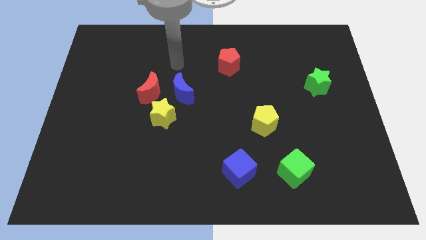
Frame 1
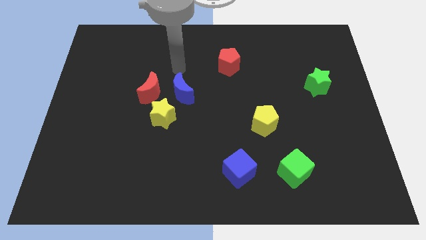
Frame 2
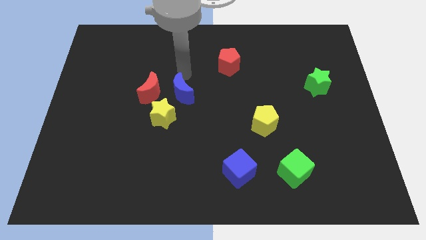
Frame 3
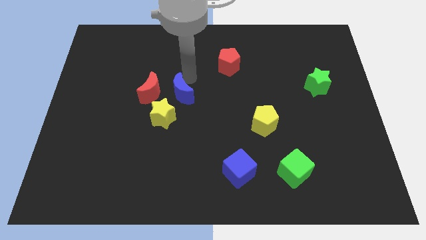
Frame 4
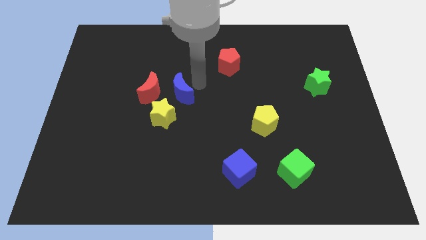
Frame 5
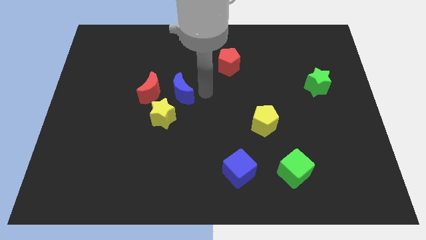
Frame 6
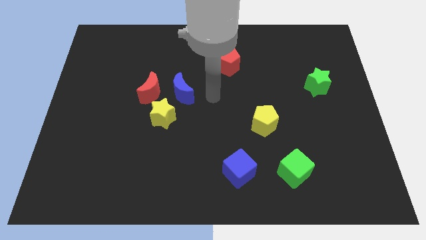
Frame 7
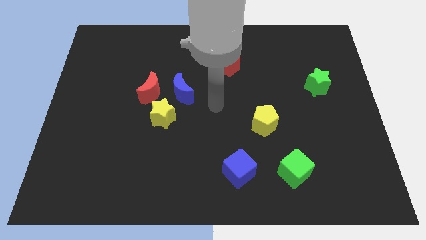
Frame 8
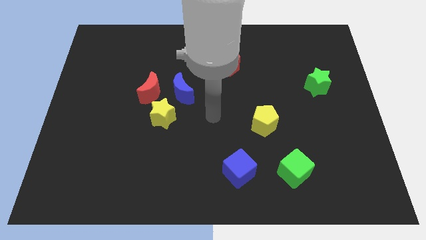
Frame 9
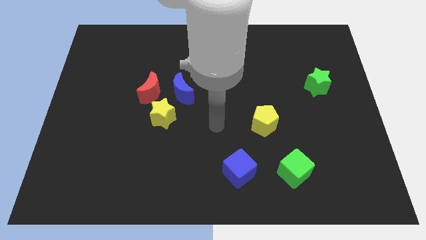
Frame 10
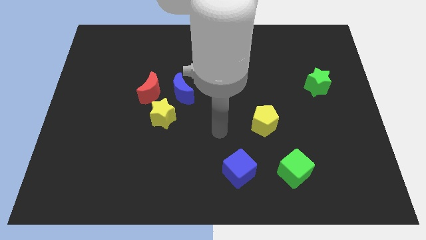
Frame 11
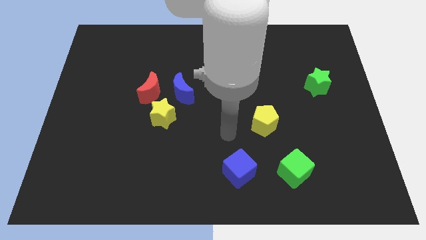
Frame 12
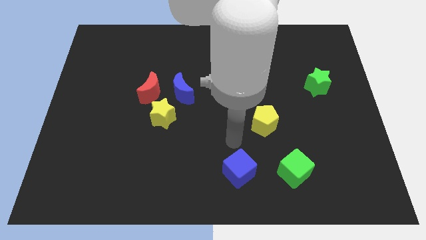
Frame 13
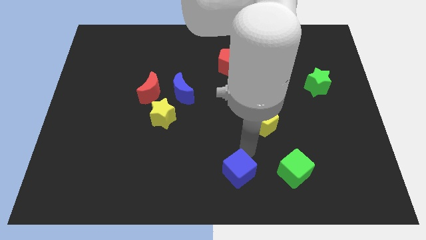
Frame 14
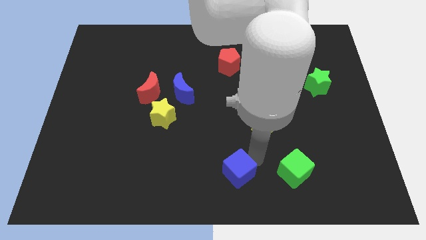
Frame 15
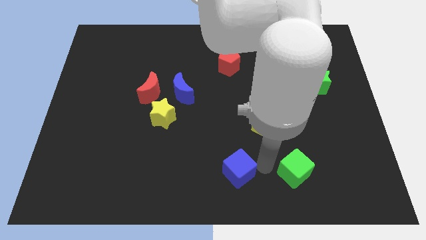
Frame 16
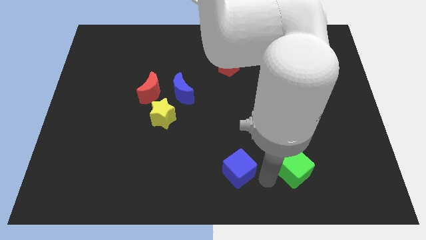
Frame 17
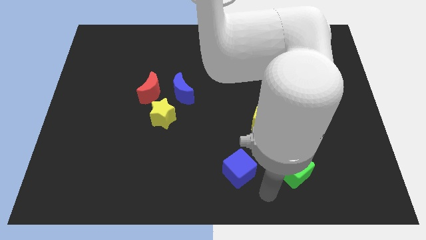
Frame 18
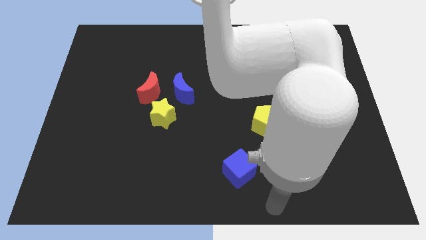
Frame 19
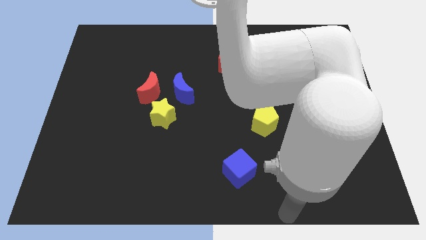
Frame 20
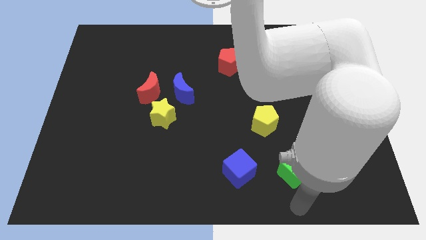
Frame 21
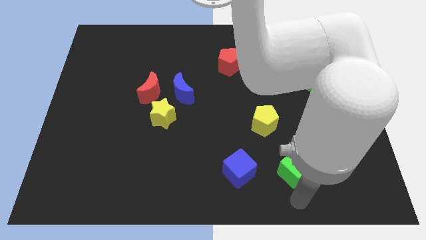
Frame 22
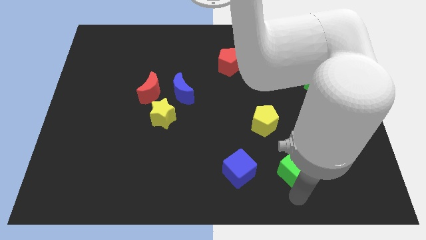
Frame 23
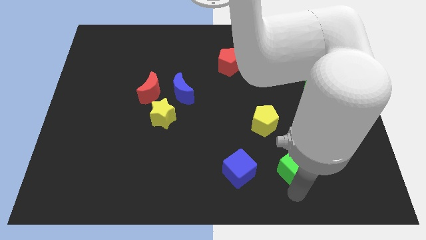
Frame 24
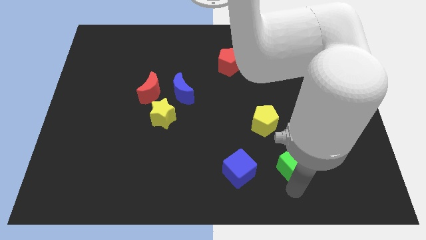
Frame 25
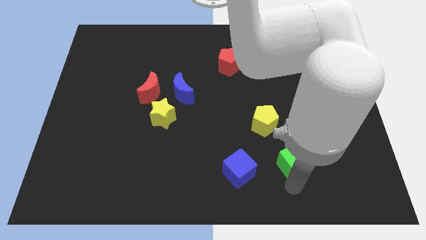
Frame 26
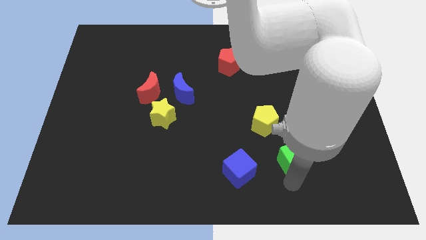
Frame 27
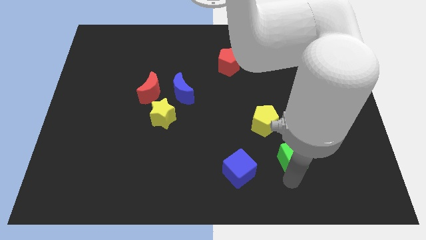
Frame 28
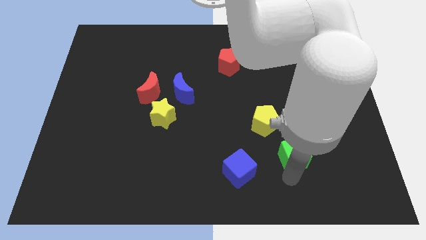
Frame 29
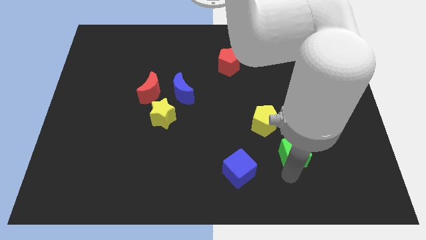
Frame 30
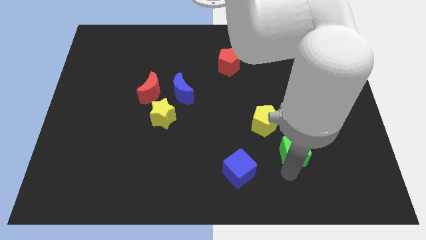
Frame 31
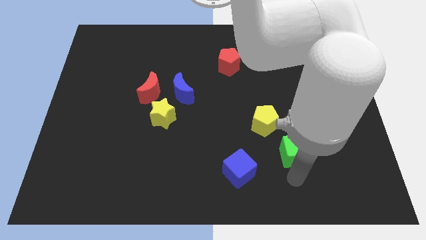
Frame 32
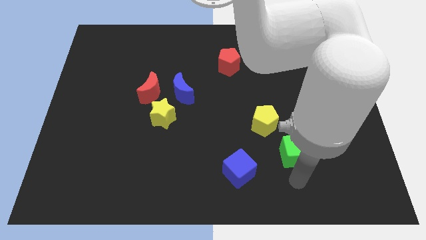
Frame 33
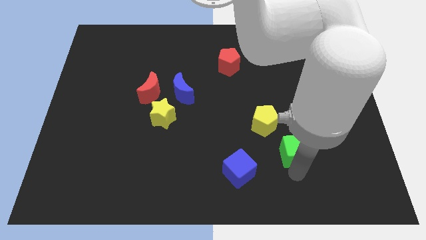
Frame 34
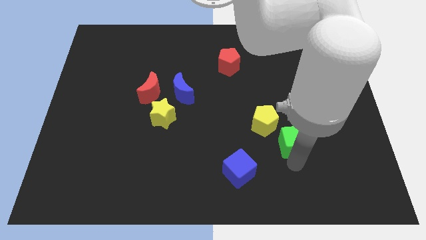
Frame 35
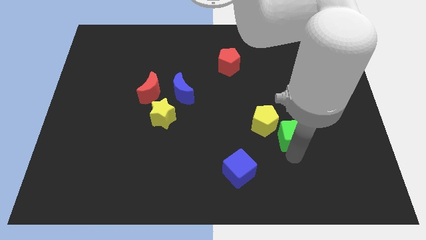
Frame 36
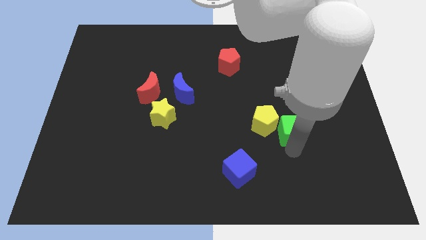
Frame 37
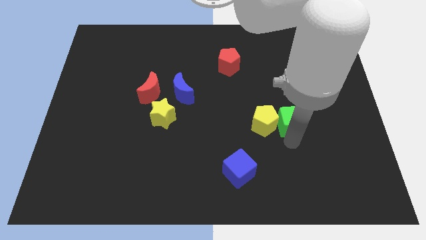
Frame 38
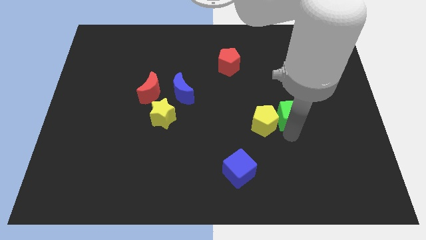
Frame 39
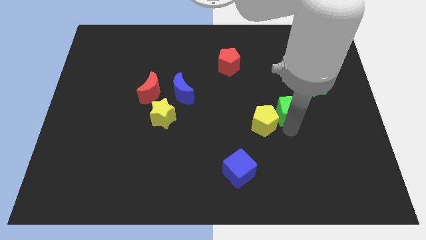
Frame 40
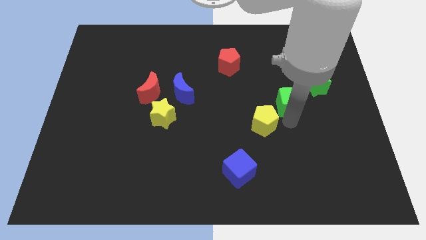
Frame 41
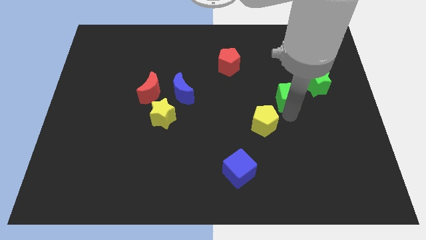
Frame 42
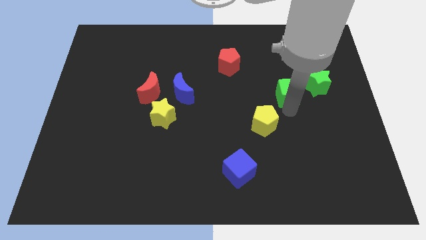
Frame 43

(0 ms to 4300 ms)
move the green cube upwards

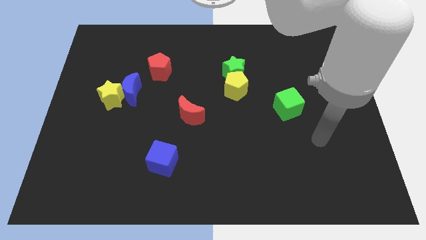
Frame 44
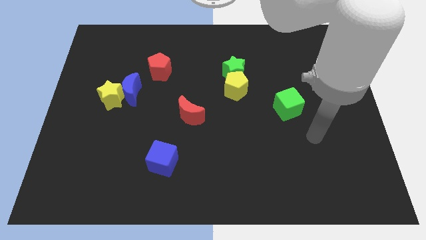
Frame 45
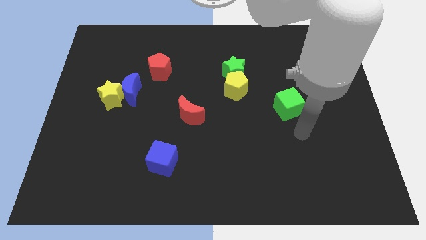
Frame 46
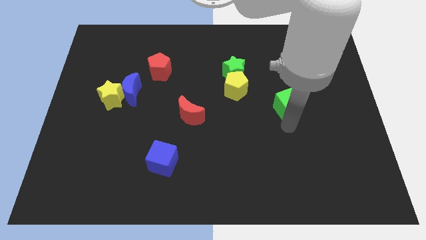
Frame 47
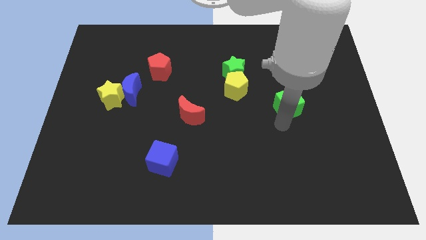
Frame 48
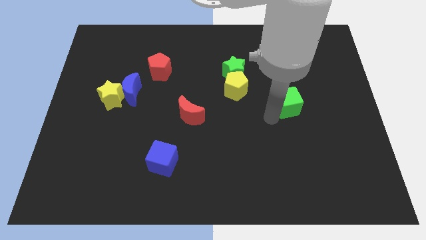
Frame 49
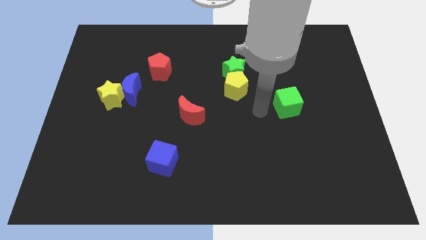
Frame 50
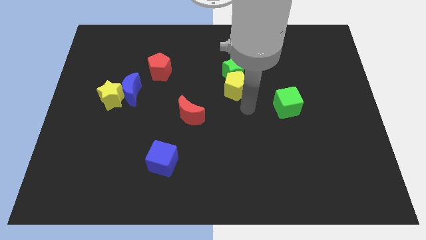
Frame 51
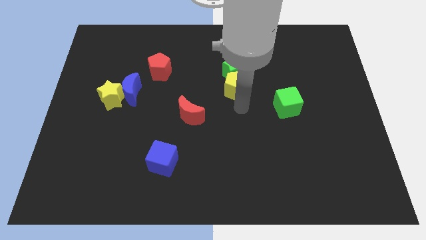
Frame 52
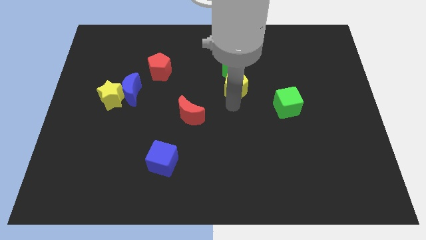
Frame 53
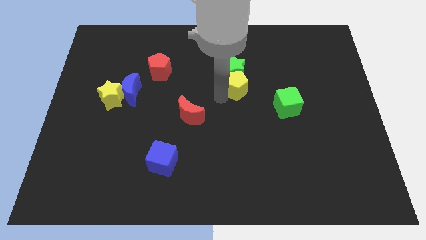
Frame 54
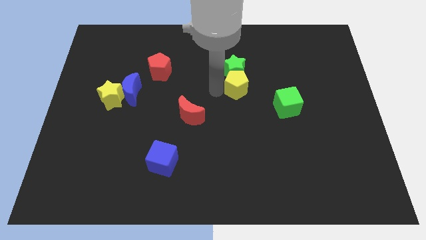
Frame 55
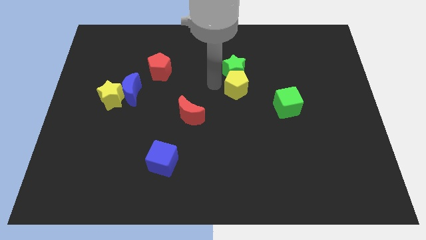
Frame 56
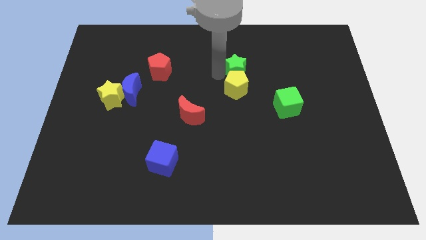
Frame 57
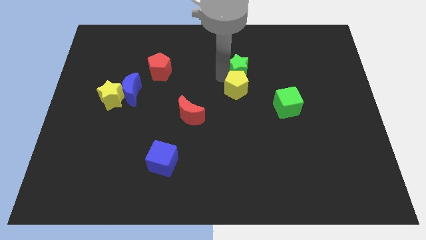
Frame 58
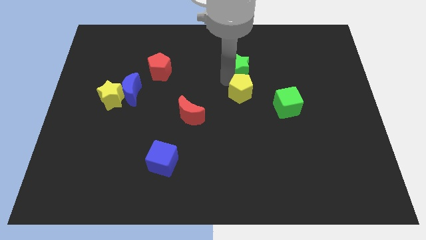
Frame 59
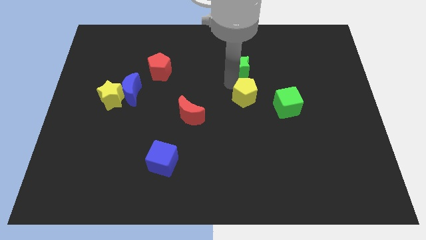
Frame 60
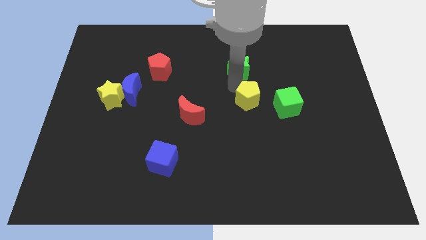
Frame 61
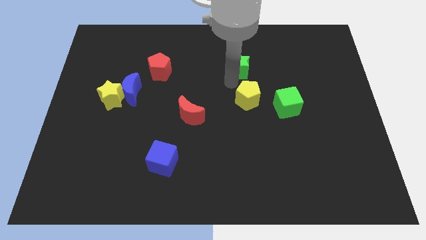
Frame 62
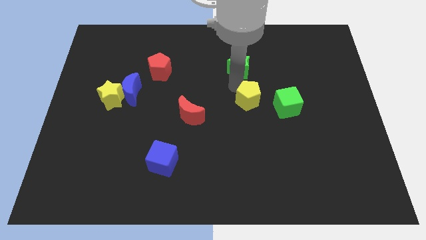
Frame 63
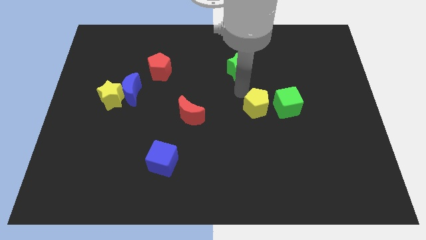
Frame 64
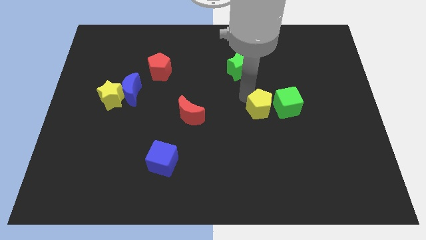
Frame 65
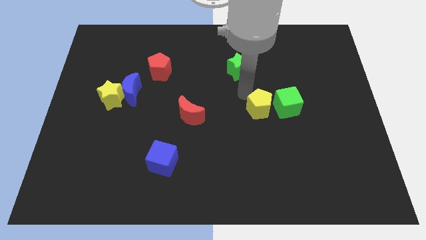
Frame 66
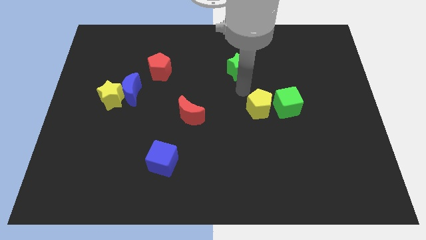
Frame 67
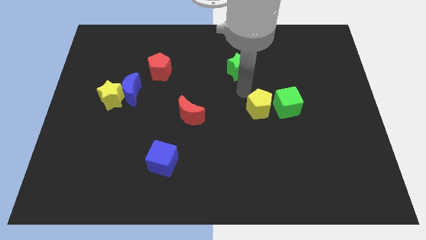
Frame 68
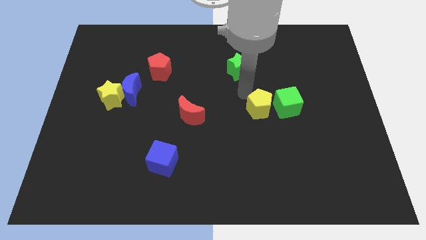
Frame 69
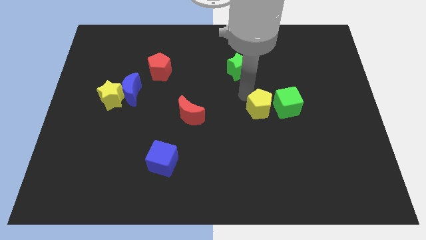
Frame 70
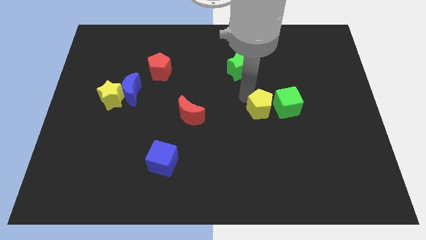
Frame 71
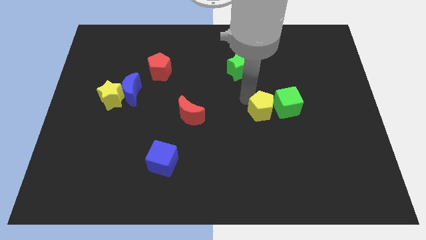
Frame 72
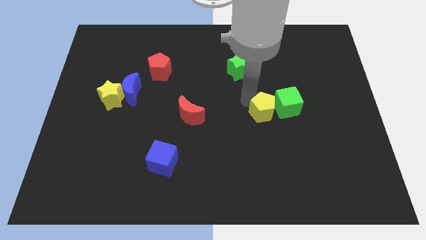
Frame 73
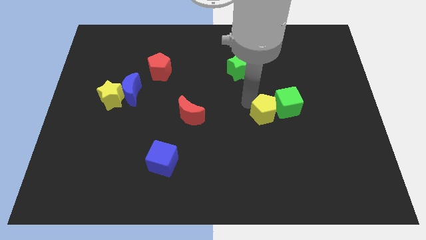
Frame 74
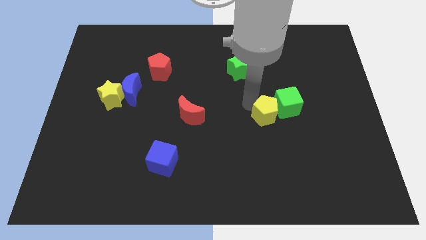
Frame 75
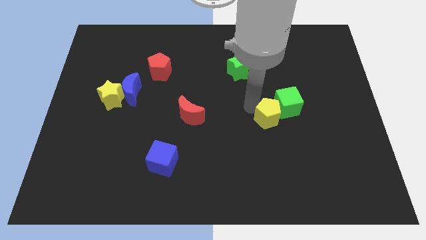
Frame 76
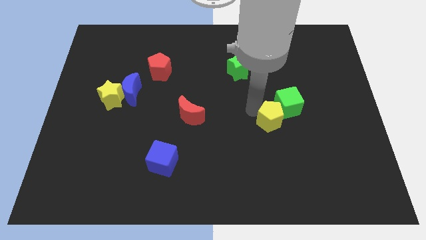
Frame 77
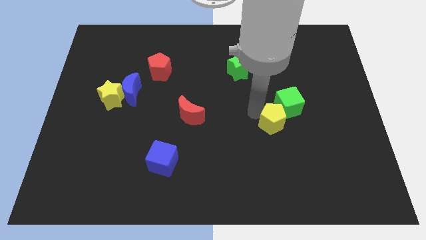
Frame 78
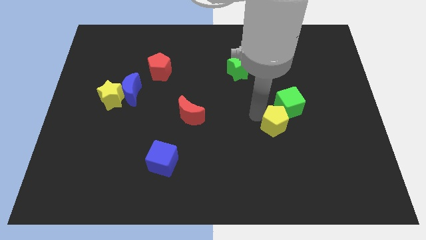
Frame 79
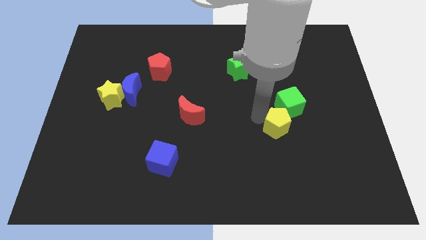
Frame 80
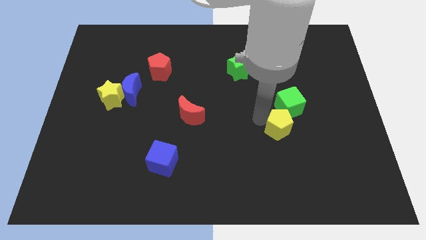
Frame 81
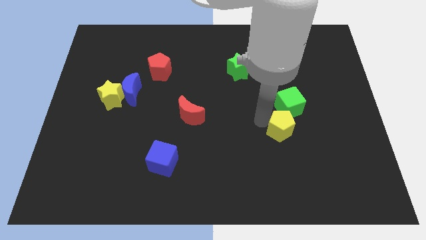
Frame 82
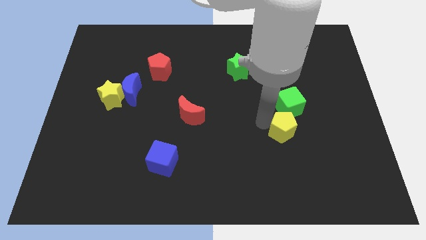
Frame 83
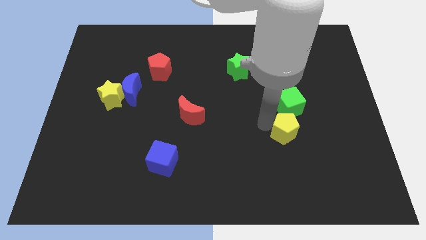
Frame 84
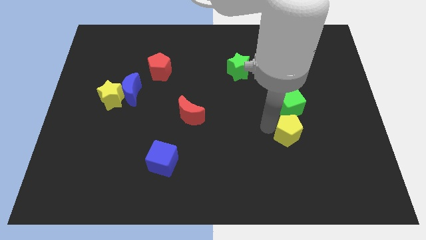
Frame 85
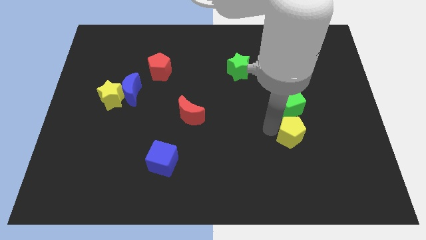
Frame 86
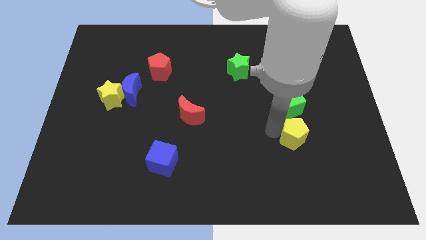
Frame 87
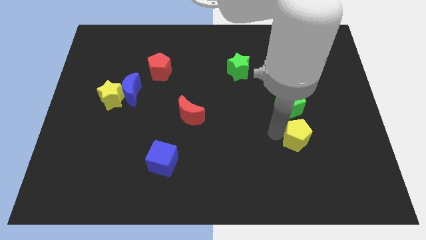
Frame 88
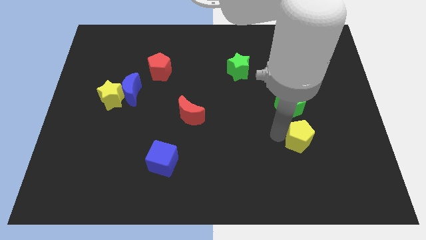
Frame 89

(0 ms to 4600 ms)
push the yellow pentagon down and right
